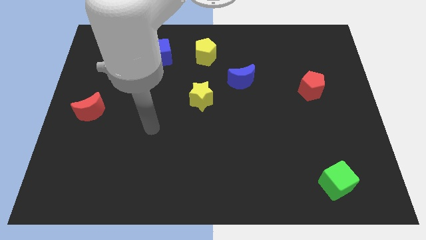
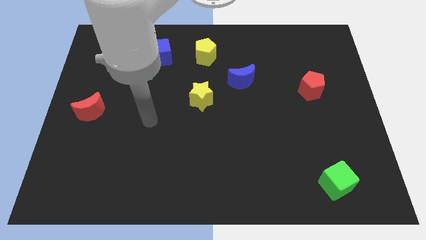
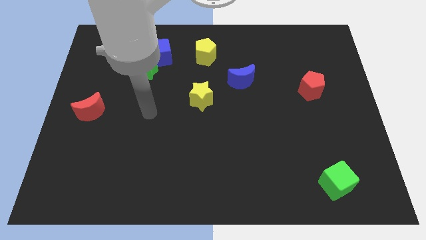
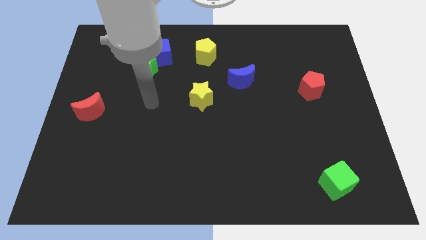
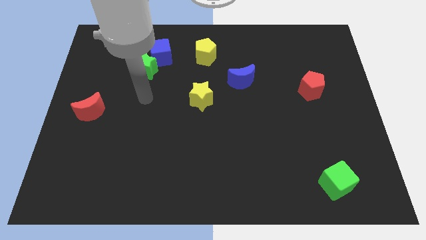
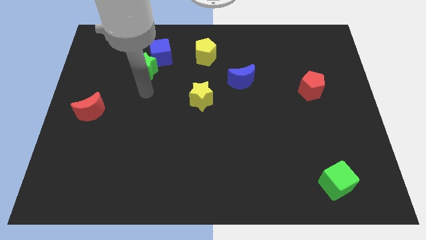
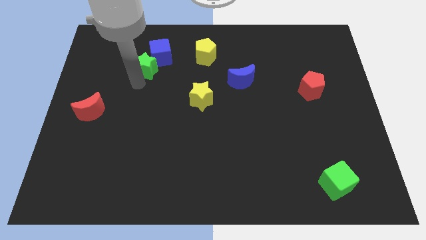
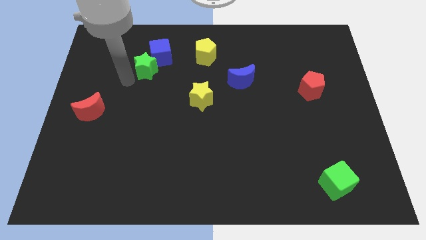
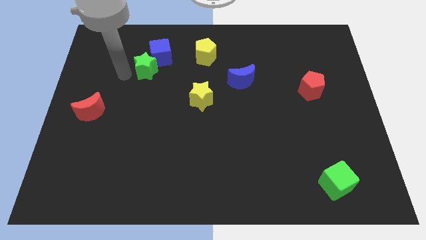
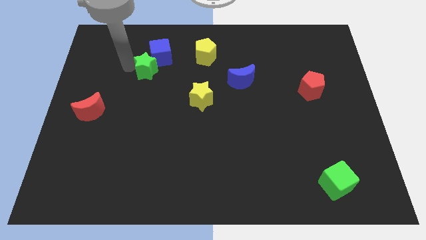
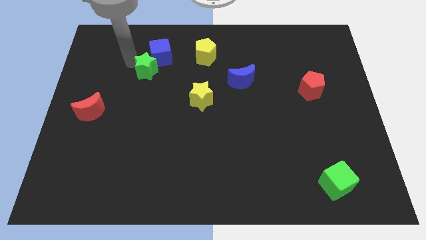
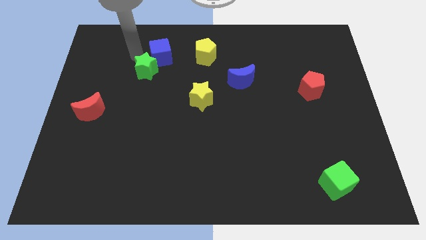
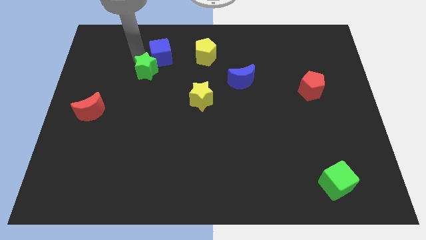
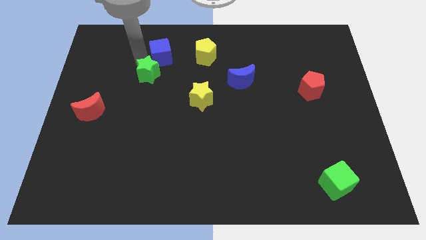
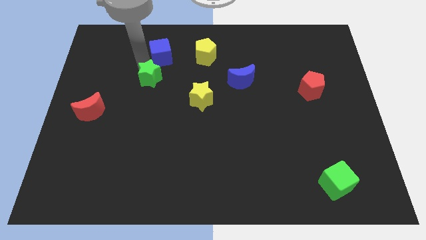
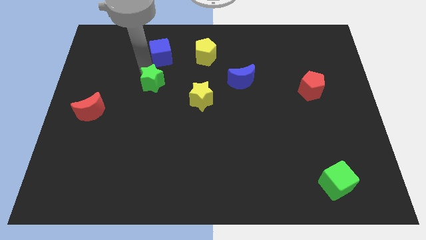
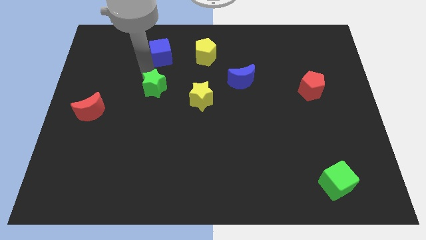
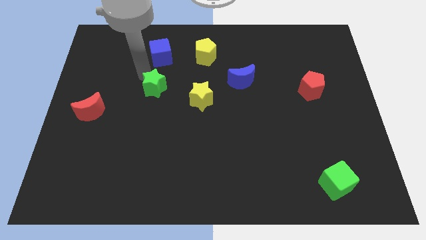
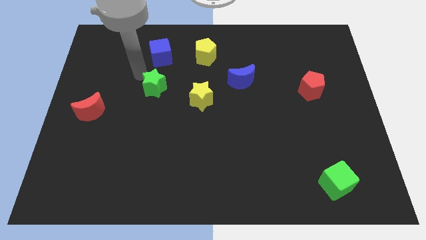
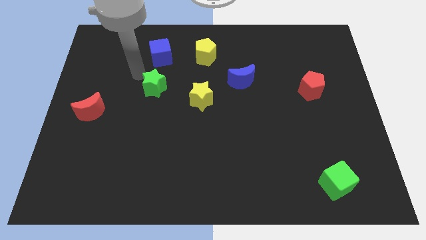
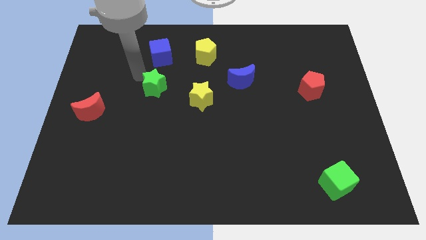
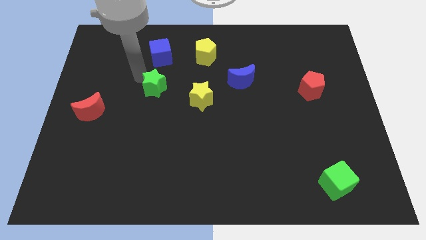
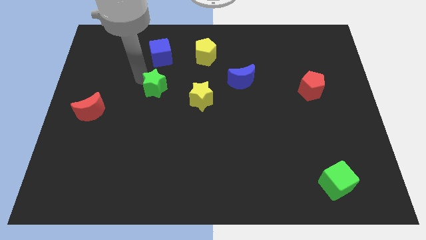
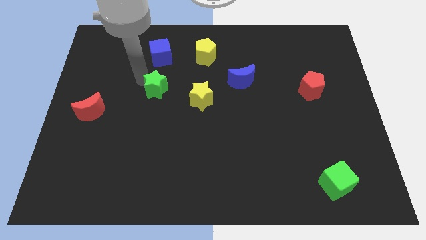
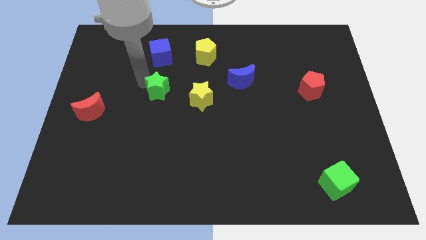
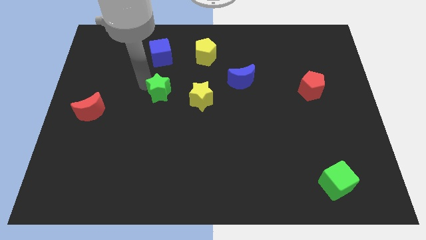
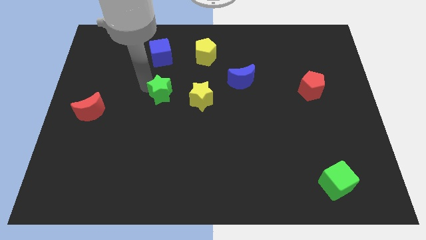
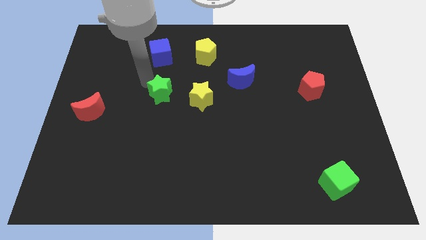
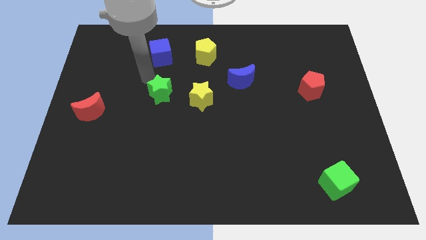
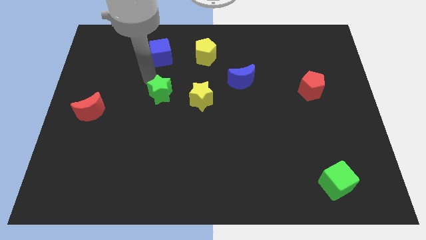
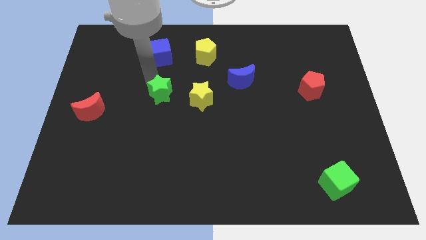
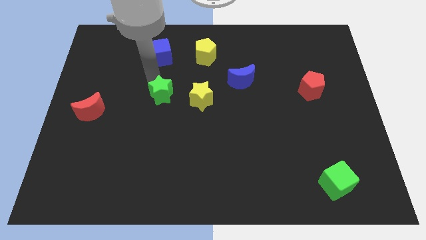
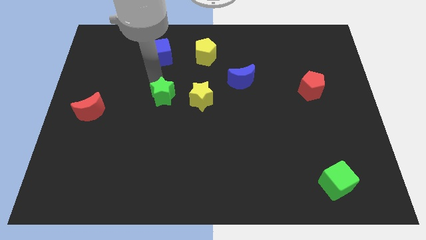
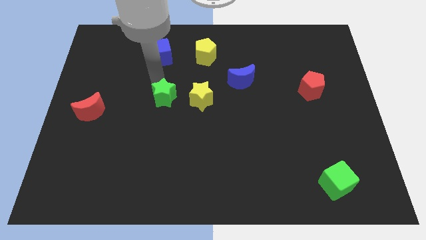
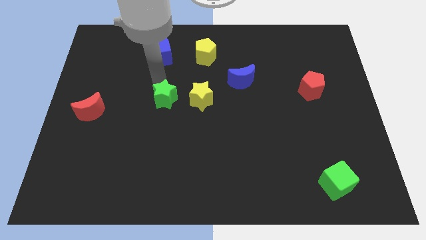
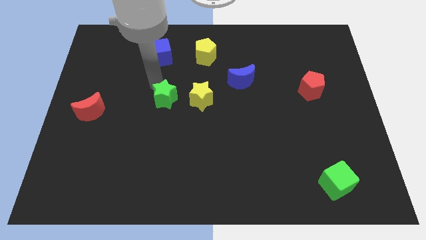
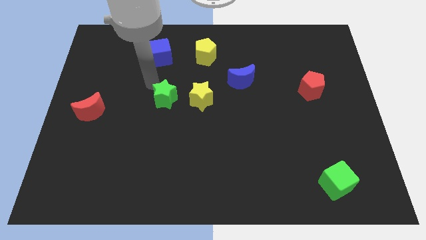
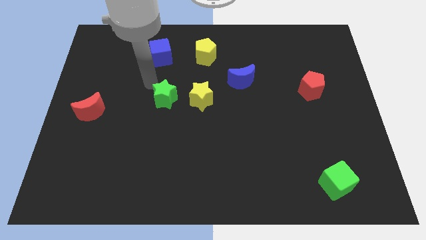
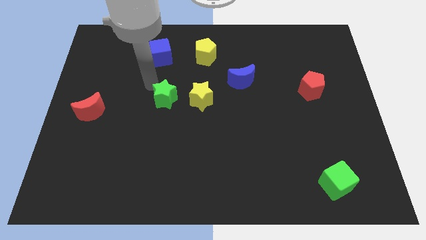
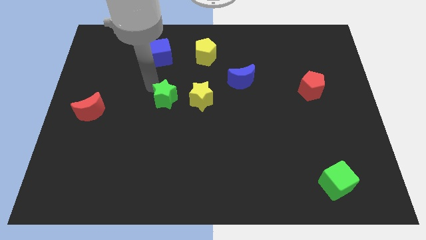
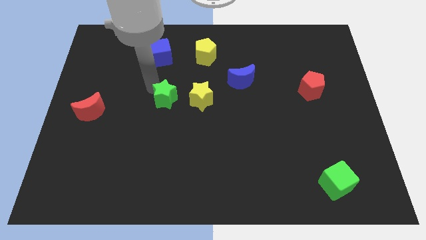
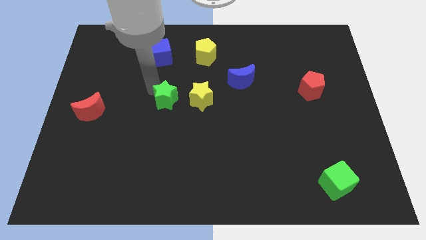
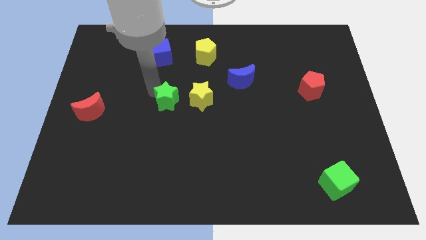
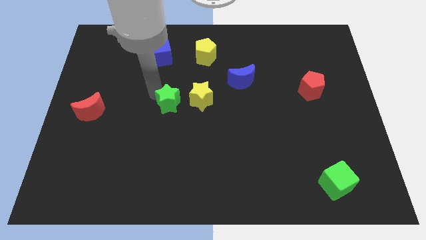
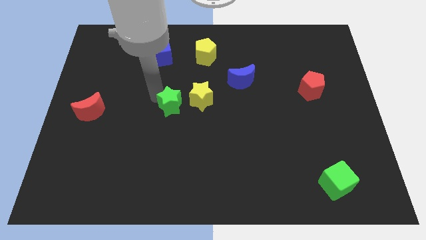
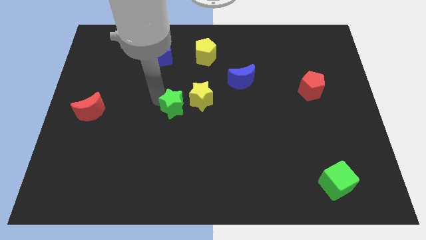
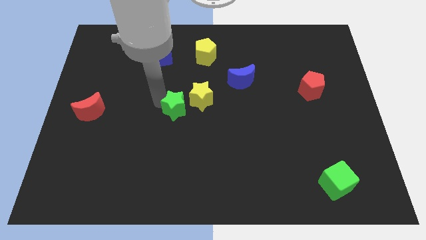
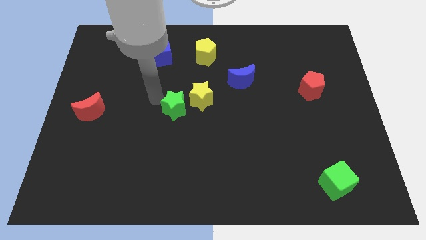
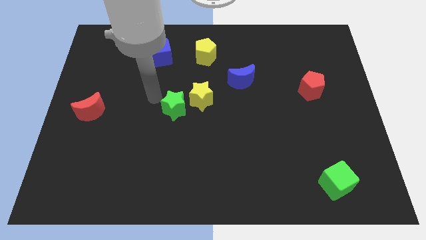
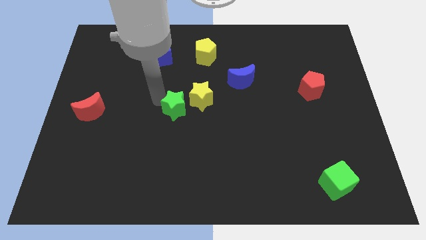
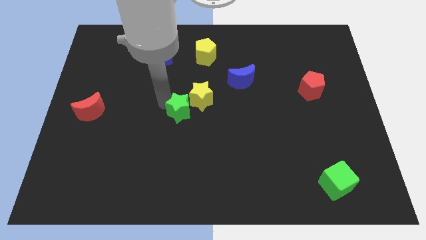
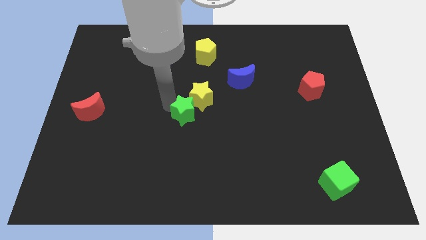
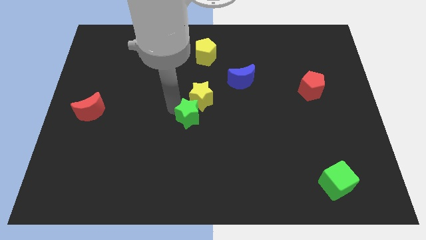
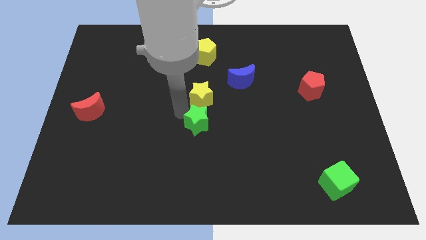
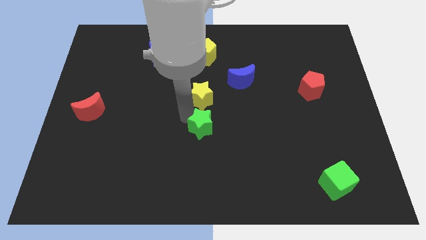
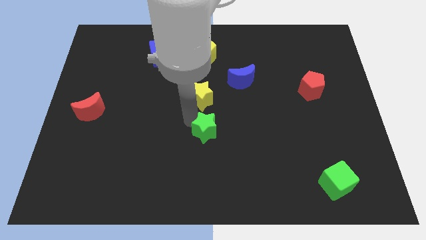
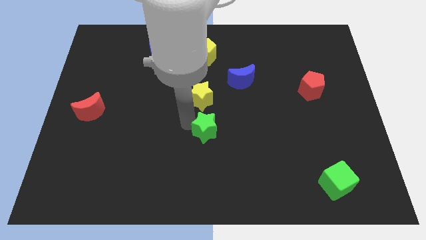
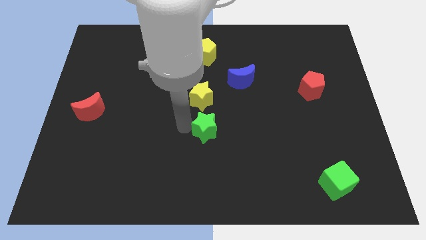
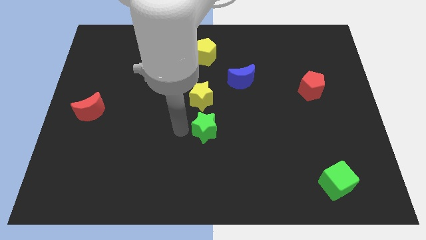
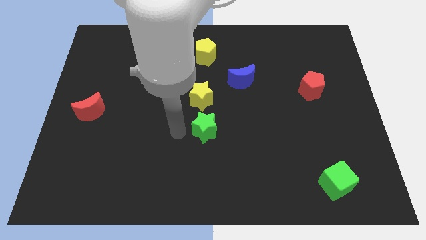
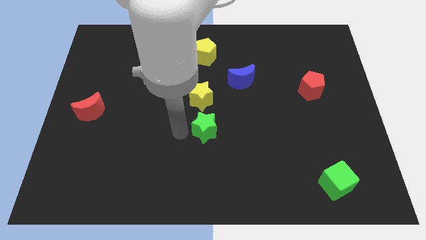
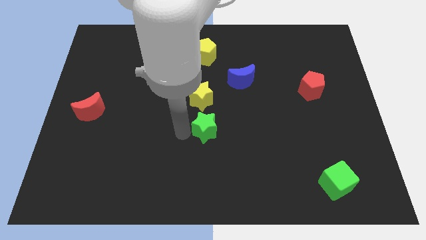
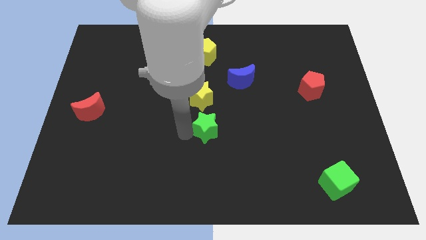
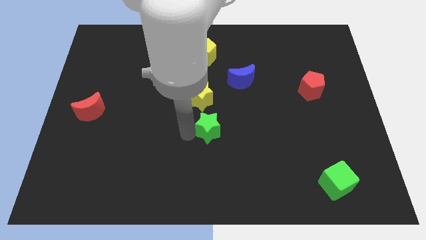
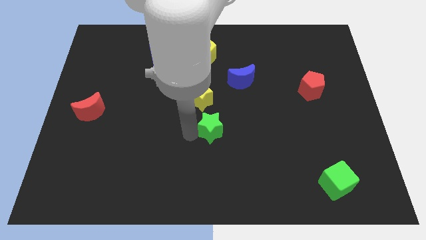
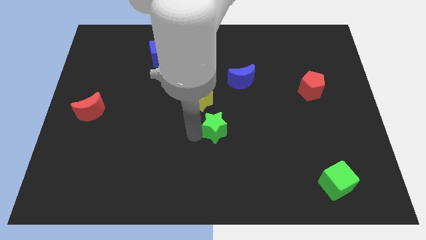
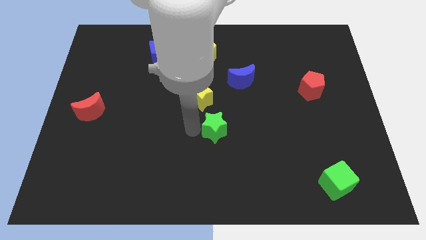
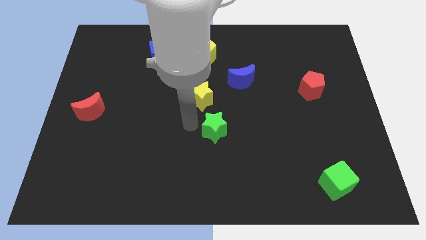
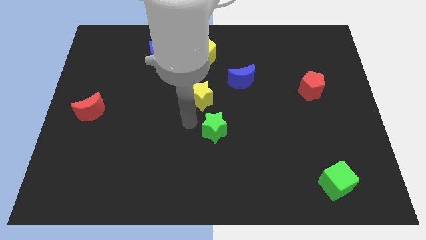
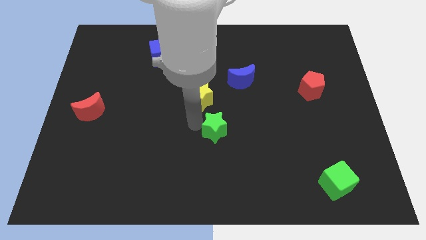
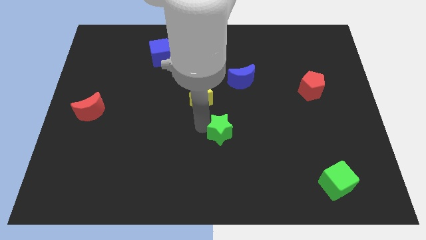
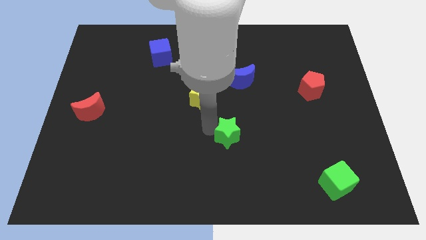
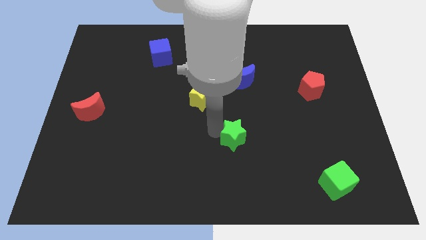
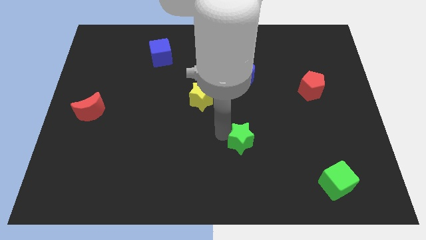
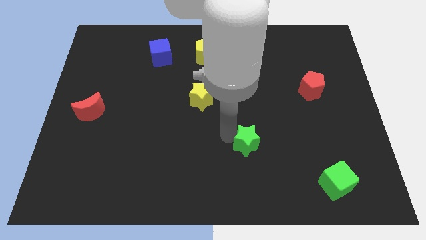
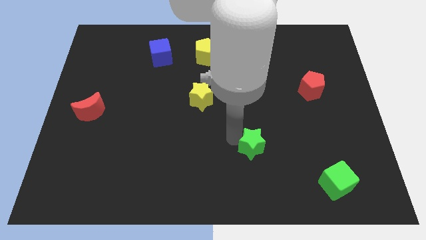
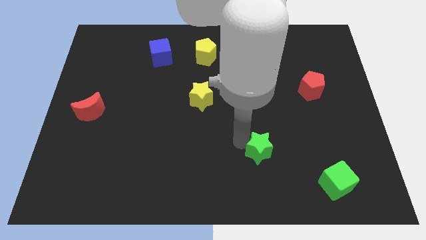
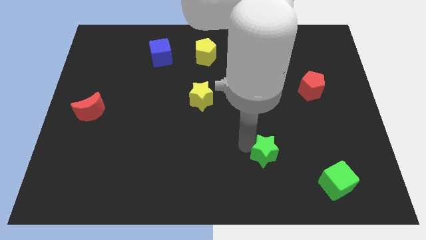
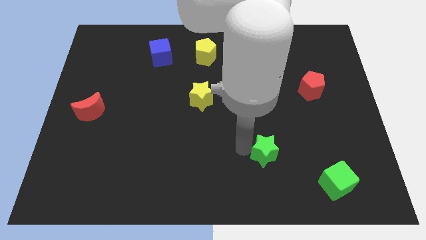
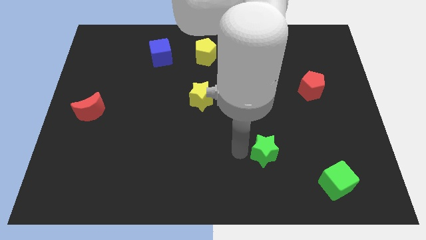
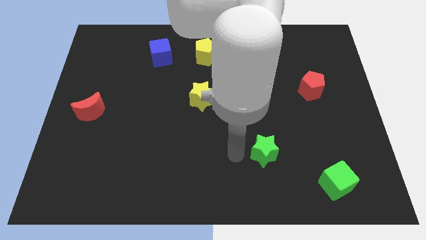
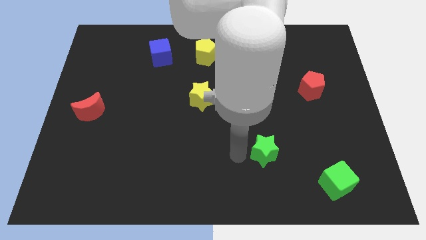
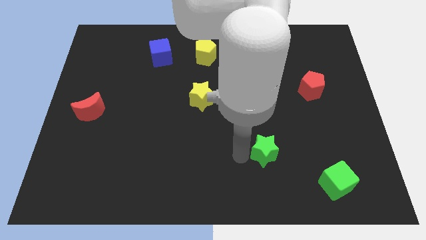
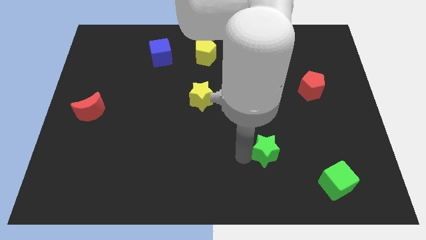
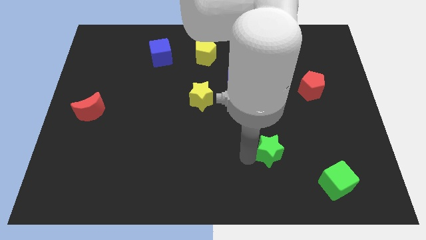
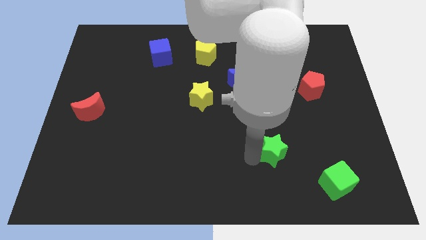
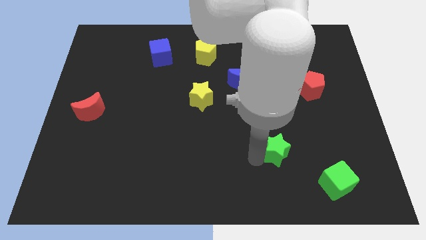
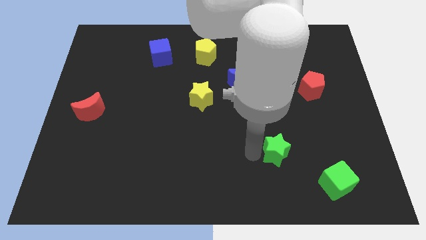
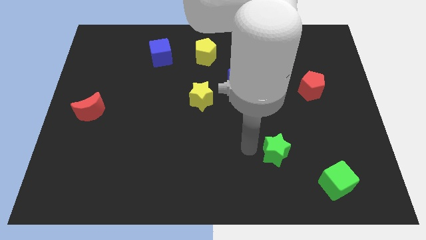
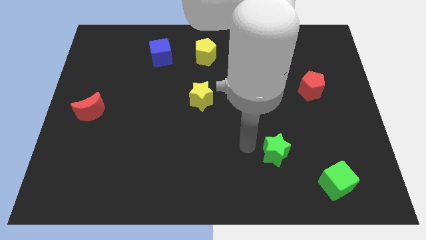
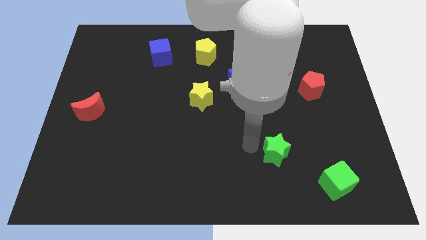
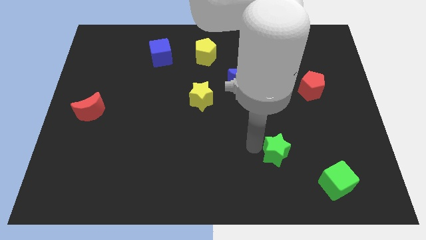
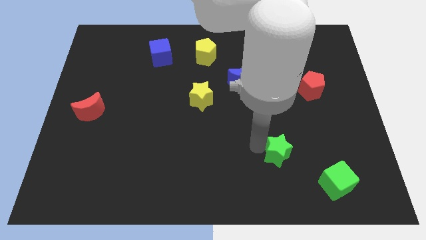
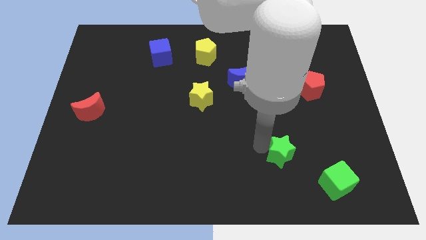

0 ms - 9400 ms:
put the green star to the top left side of the green cube
